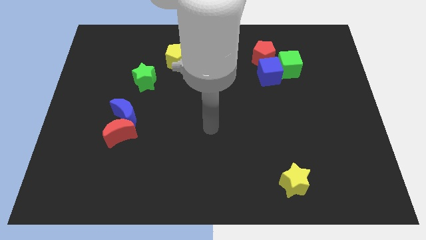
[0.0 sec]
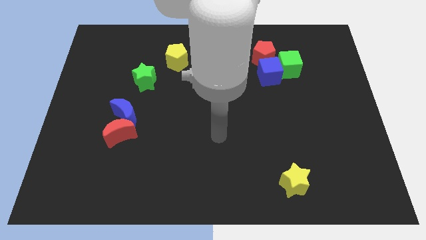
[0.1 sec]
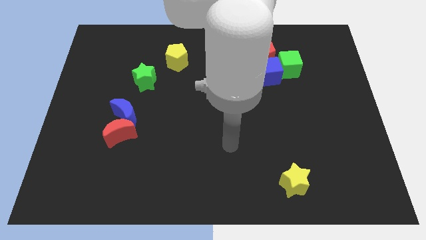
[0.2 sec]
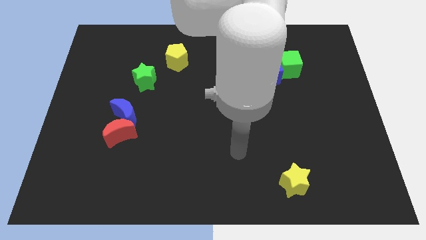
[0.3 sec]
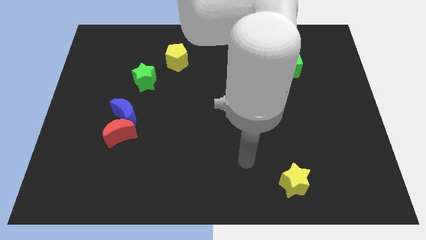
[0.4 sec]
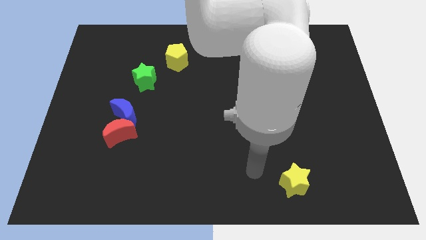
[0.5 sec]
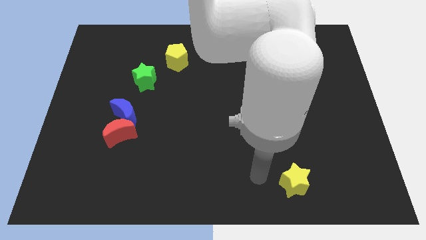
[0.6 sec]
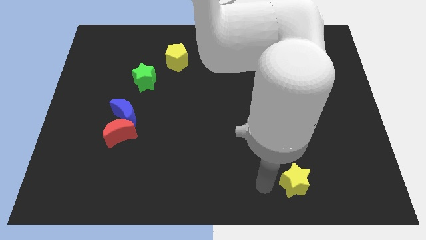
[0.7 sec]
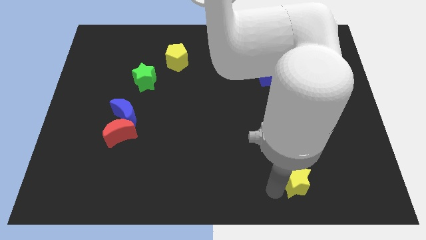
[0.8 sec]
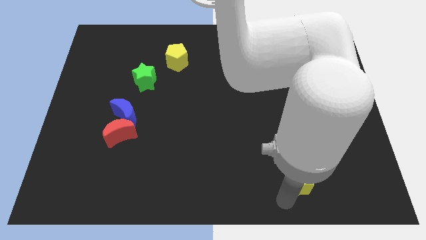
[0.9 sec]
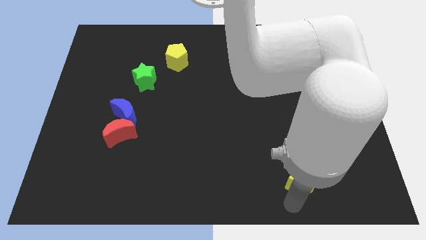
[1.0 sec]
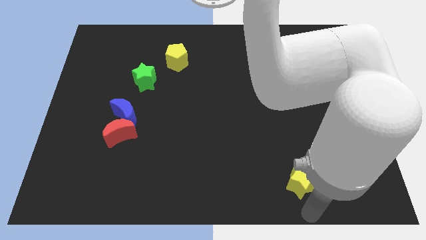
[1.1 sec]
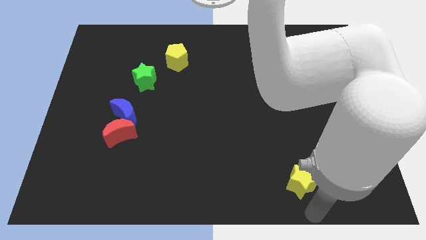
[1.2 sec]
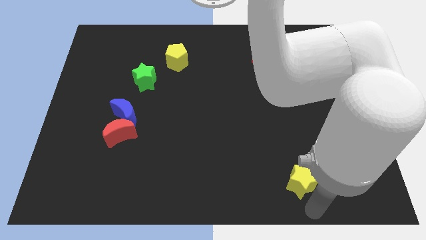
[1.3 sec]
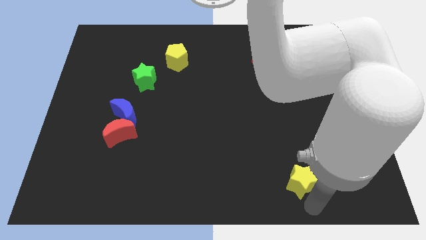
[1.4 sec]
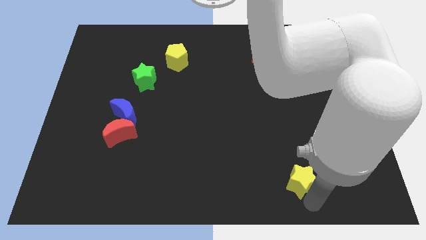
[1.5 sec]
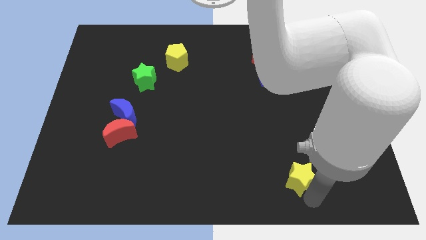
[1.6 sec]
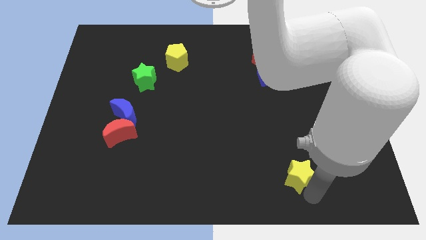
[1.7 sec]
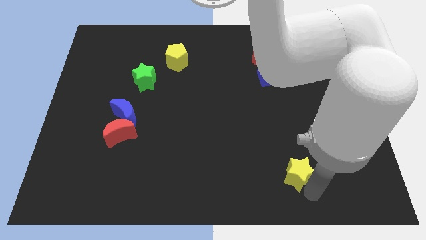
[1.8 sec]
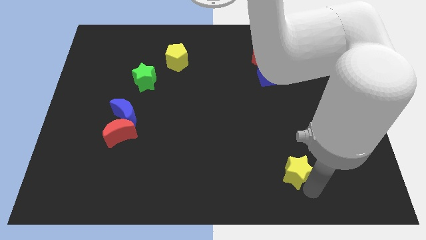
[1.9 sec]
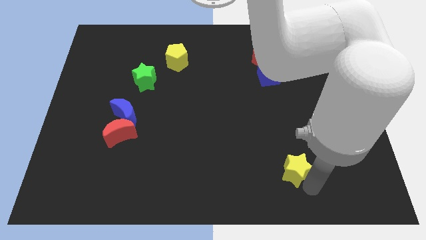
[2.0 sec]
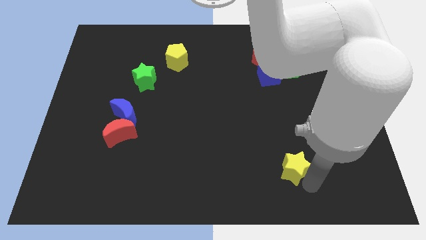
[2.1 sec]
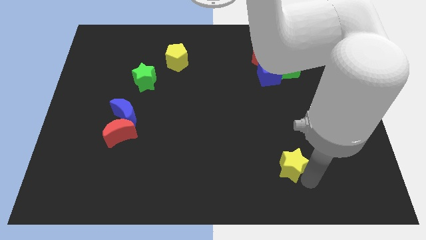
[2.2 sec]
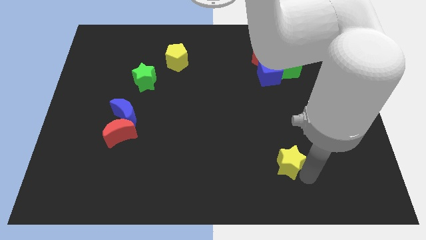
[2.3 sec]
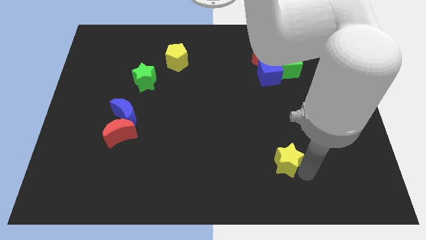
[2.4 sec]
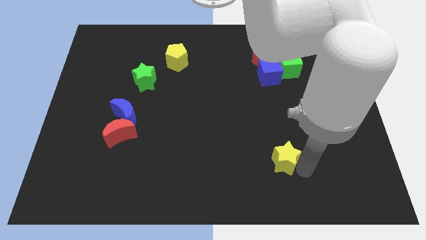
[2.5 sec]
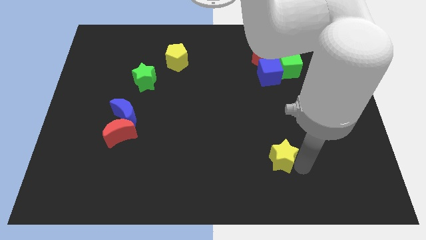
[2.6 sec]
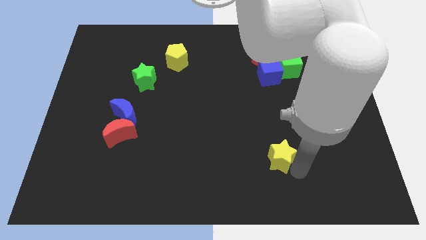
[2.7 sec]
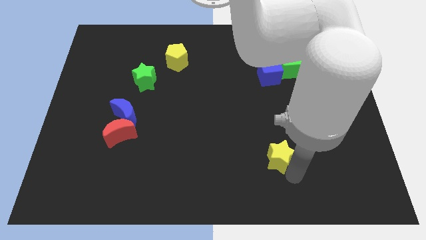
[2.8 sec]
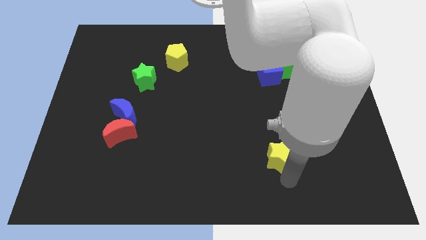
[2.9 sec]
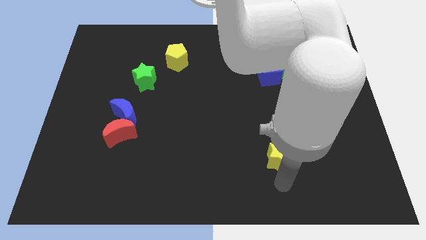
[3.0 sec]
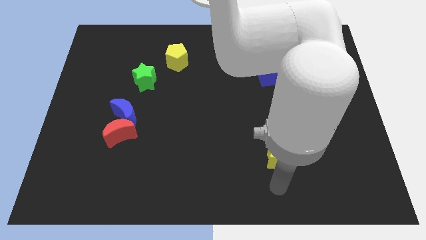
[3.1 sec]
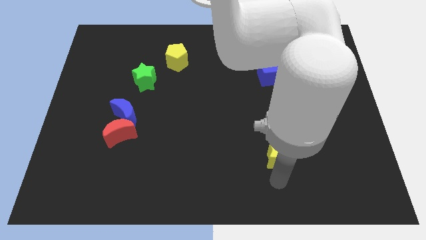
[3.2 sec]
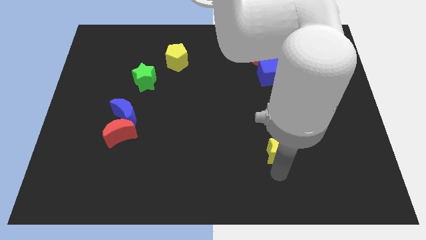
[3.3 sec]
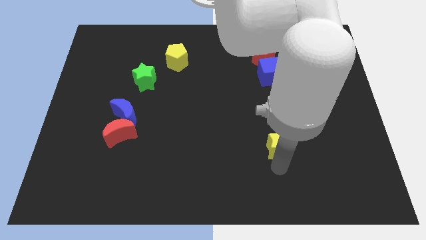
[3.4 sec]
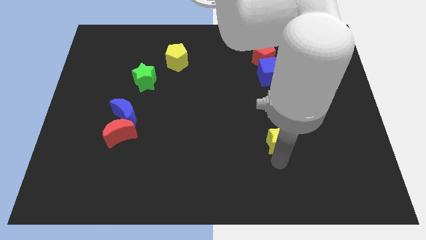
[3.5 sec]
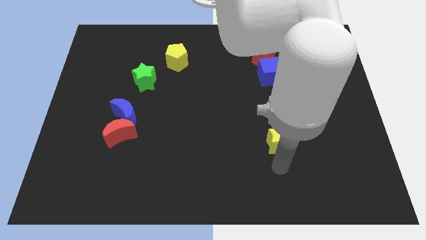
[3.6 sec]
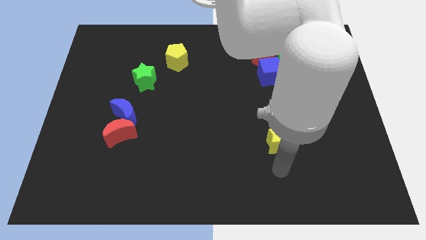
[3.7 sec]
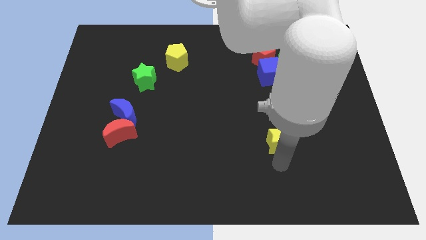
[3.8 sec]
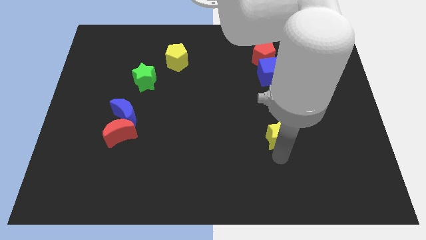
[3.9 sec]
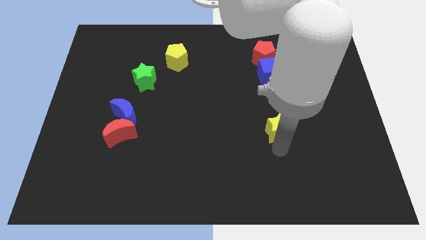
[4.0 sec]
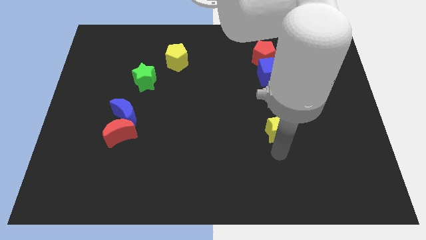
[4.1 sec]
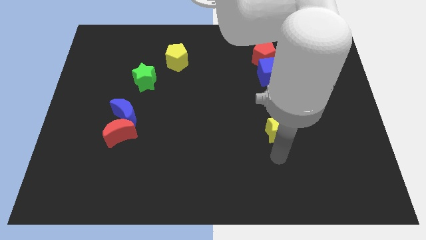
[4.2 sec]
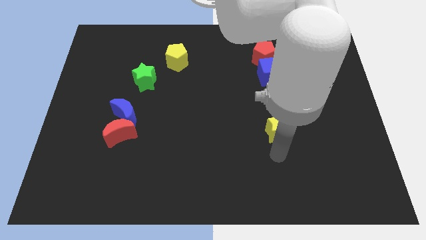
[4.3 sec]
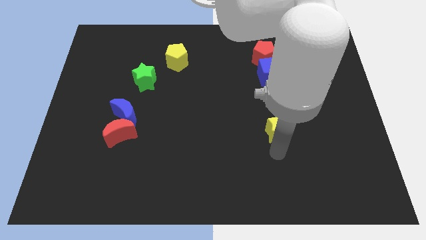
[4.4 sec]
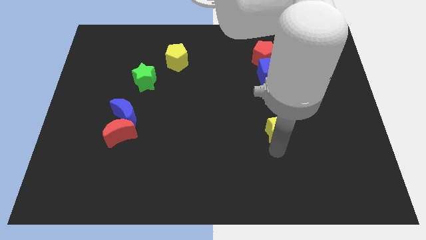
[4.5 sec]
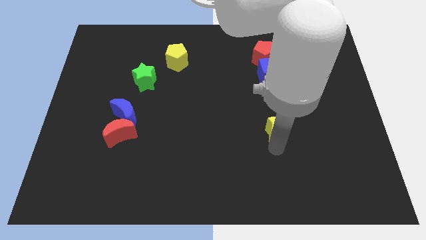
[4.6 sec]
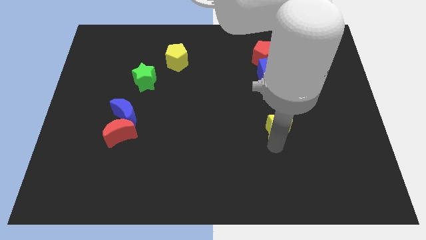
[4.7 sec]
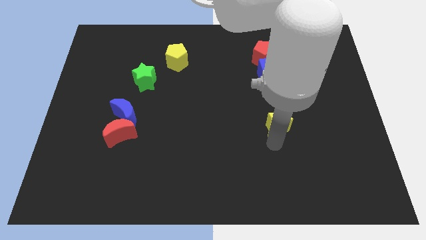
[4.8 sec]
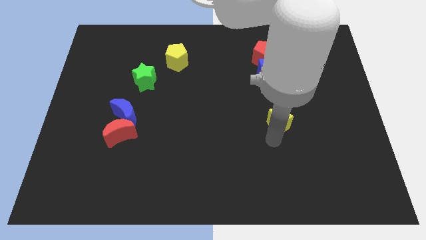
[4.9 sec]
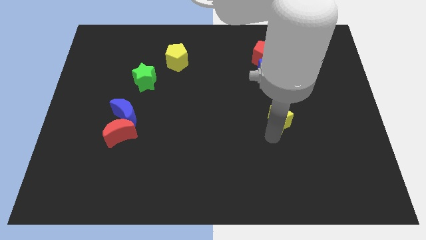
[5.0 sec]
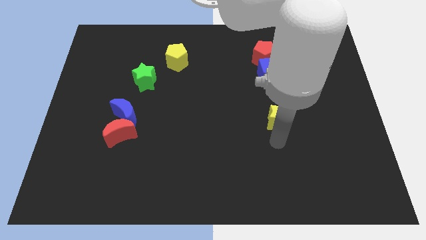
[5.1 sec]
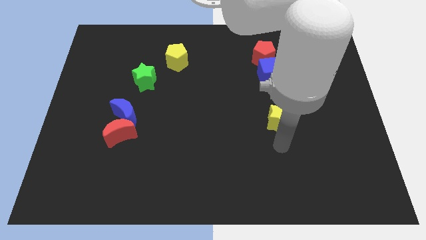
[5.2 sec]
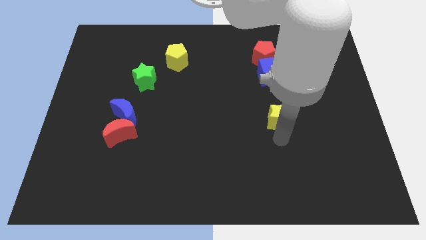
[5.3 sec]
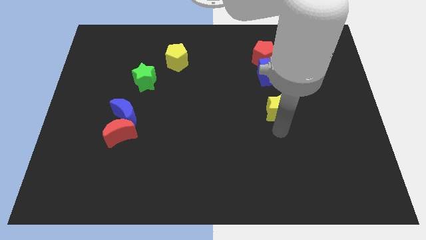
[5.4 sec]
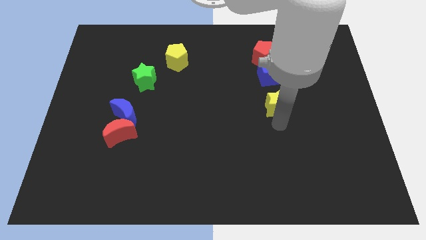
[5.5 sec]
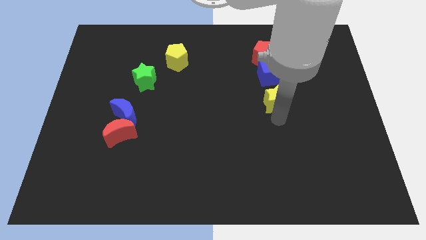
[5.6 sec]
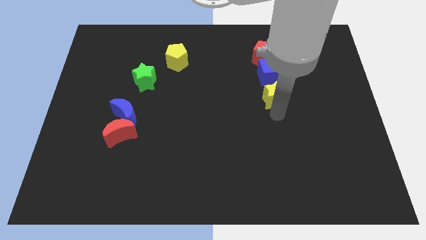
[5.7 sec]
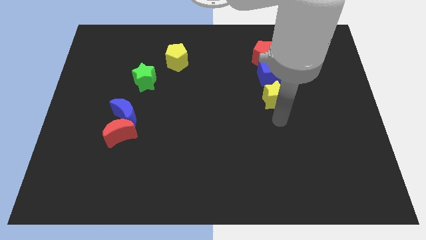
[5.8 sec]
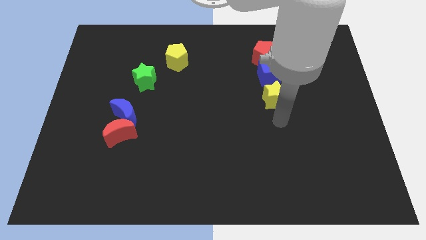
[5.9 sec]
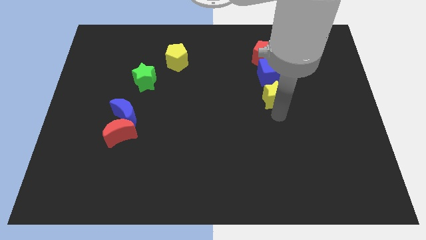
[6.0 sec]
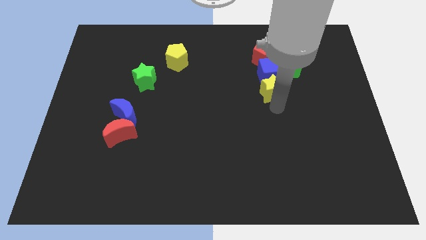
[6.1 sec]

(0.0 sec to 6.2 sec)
put the yellow star towards the blue cube

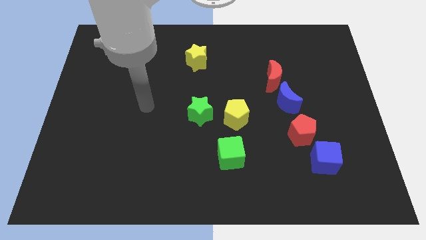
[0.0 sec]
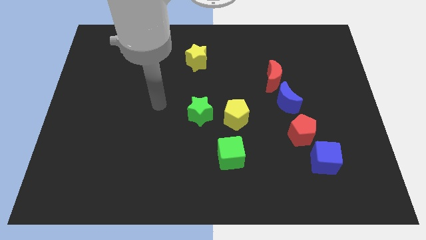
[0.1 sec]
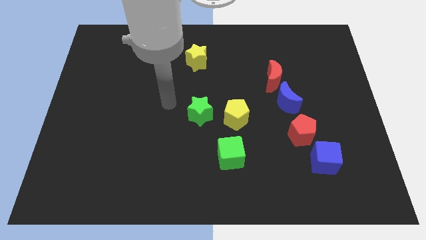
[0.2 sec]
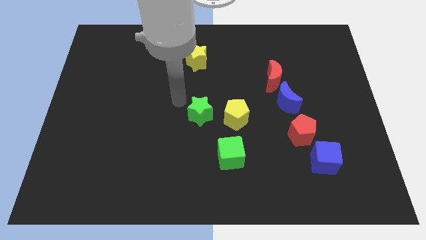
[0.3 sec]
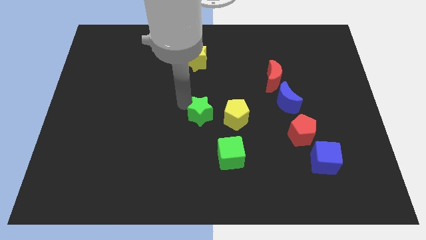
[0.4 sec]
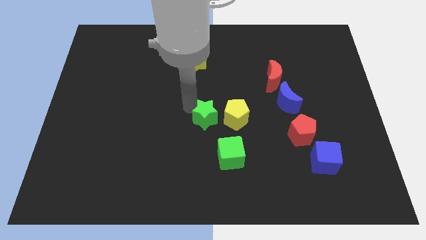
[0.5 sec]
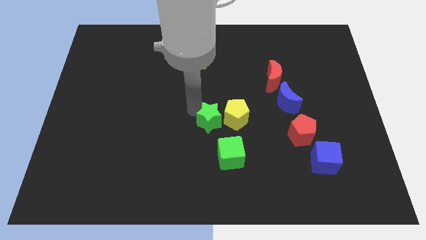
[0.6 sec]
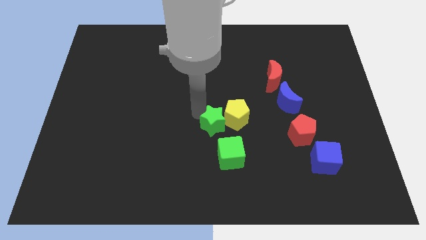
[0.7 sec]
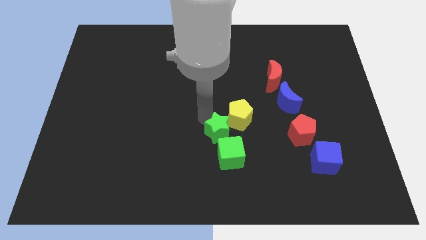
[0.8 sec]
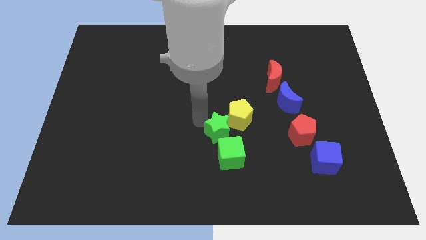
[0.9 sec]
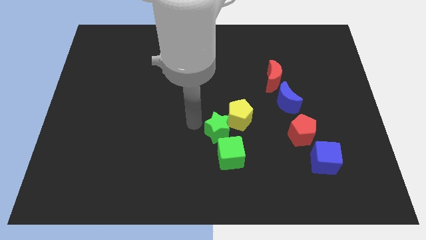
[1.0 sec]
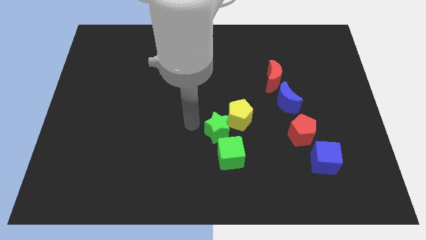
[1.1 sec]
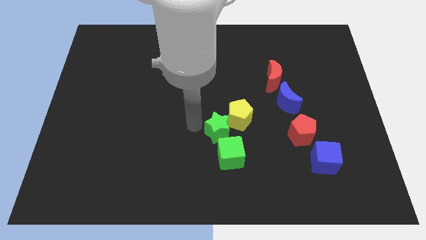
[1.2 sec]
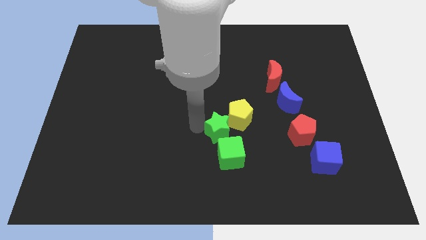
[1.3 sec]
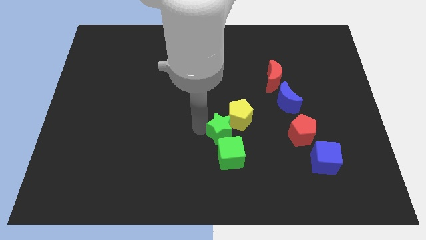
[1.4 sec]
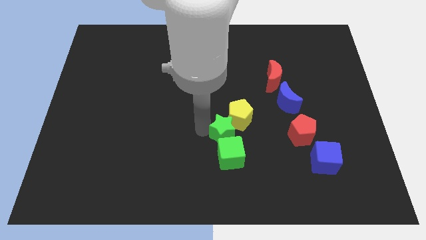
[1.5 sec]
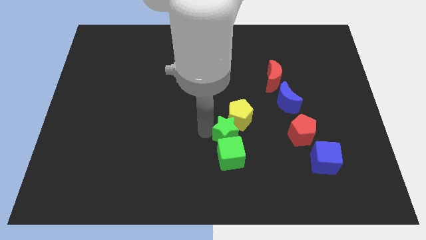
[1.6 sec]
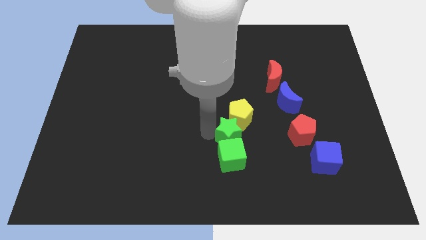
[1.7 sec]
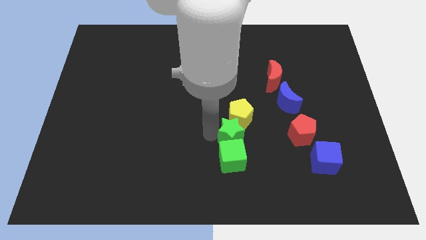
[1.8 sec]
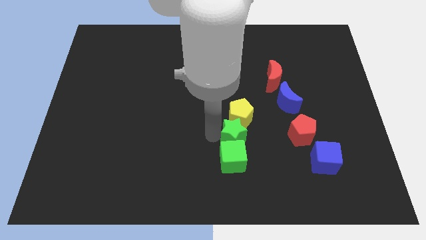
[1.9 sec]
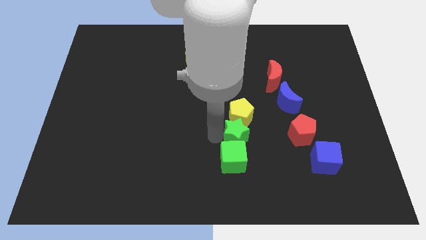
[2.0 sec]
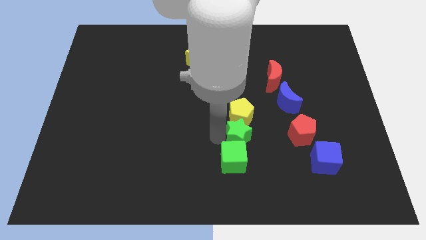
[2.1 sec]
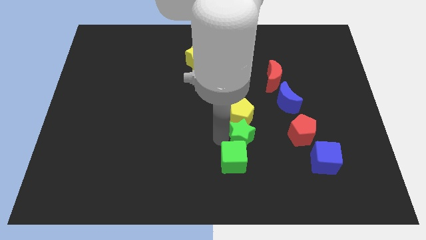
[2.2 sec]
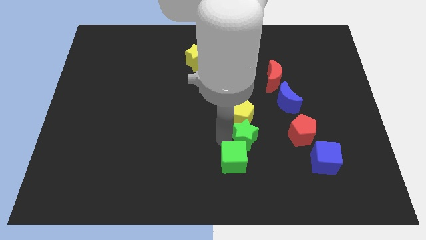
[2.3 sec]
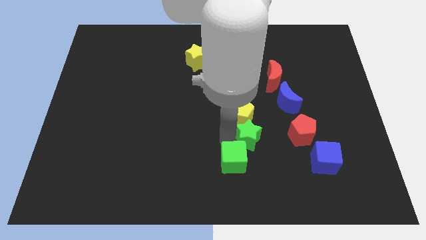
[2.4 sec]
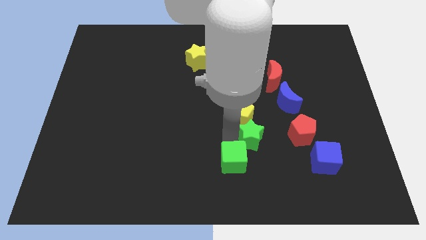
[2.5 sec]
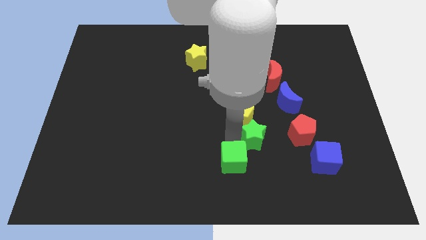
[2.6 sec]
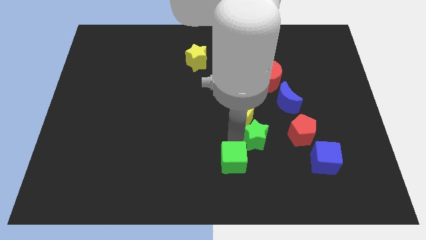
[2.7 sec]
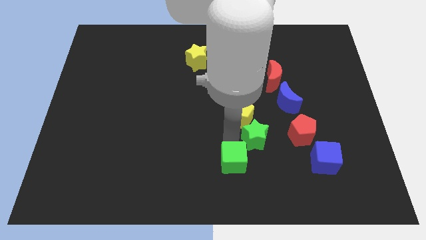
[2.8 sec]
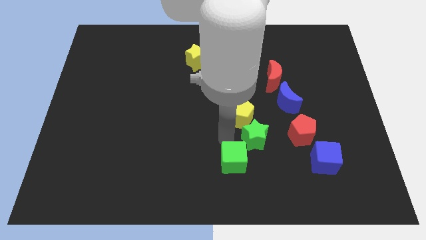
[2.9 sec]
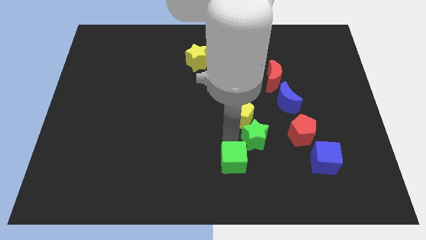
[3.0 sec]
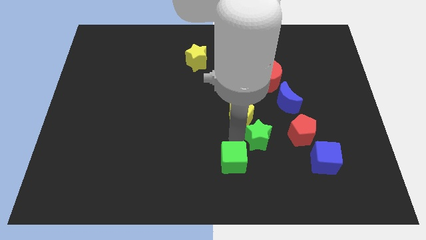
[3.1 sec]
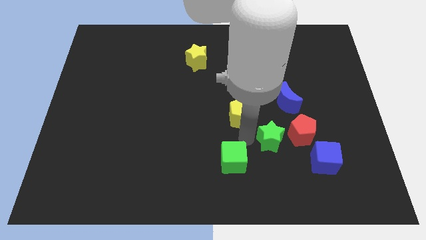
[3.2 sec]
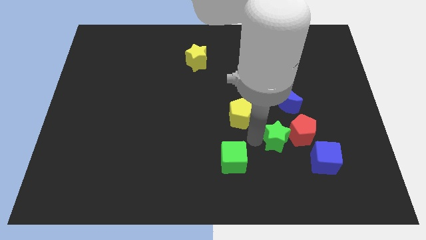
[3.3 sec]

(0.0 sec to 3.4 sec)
push the green star towards the red pentagon
